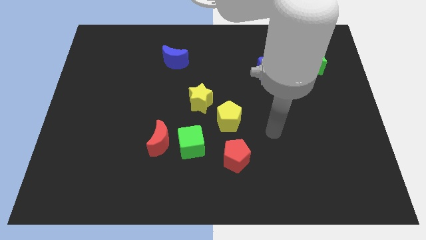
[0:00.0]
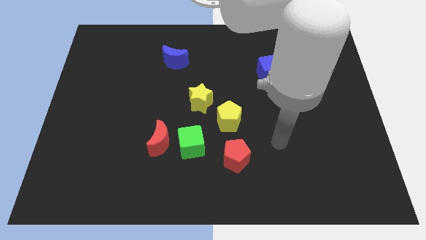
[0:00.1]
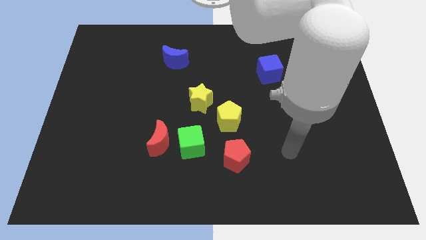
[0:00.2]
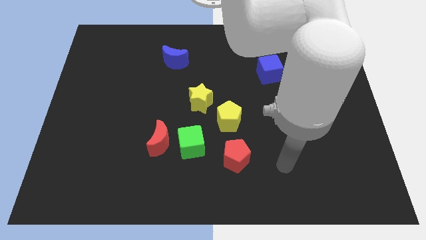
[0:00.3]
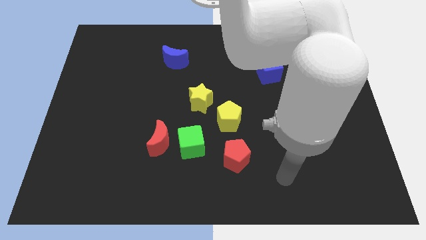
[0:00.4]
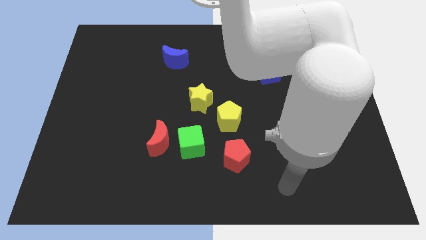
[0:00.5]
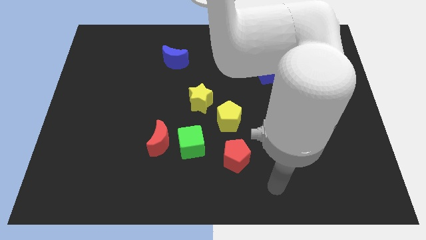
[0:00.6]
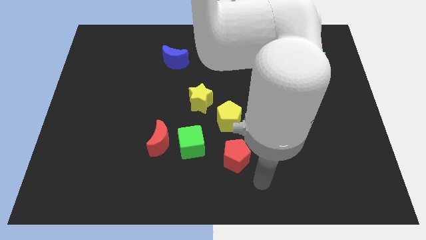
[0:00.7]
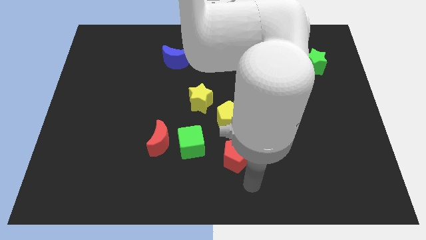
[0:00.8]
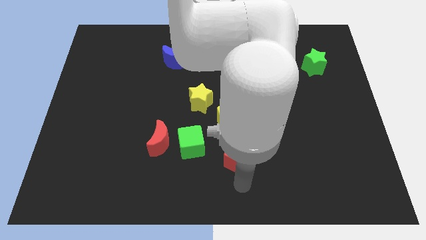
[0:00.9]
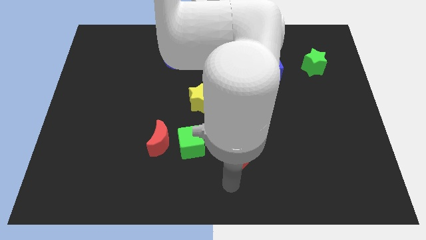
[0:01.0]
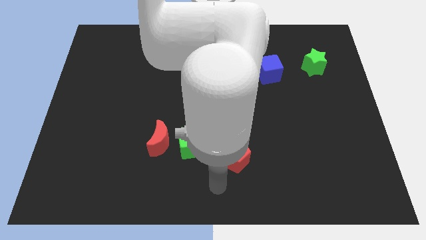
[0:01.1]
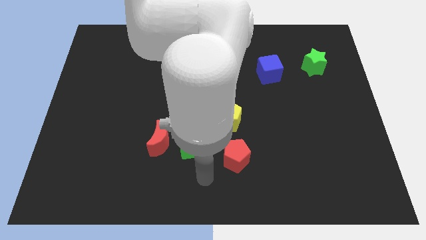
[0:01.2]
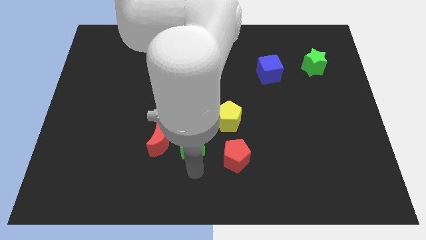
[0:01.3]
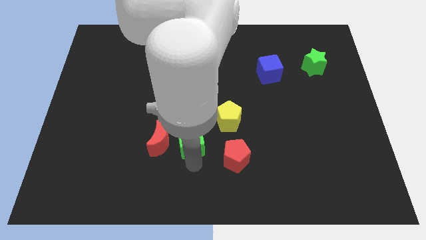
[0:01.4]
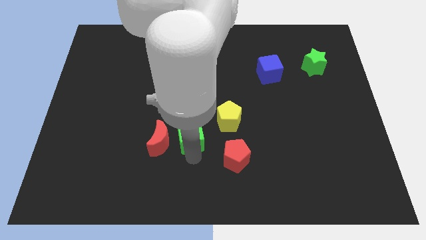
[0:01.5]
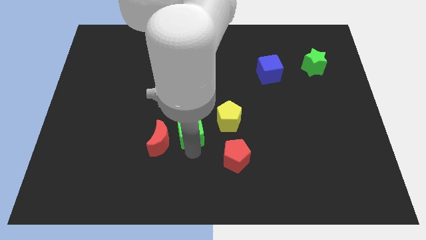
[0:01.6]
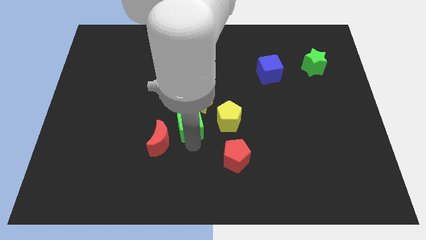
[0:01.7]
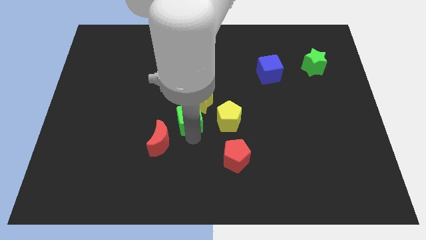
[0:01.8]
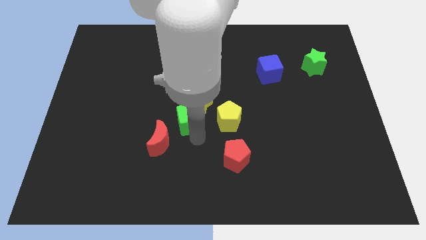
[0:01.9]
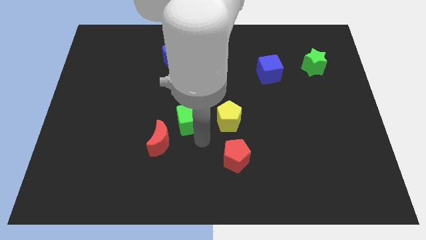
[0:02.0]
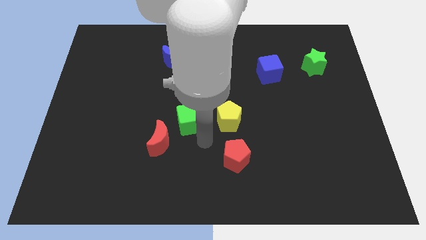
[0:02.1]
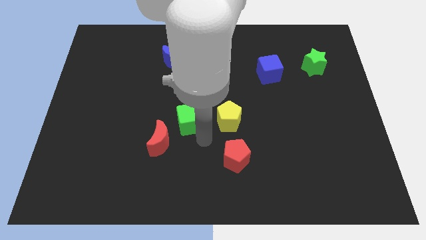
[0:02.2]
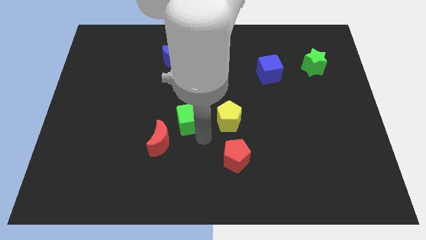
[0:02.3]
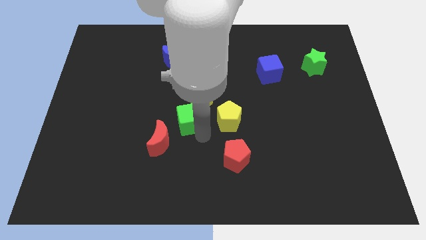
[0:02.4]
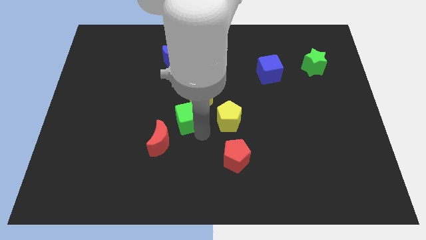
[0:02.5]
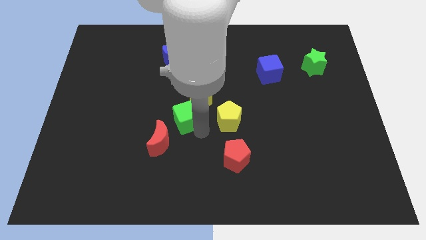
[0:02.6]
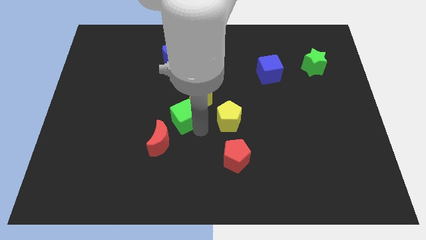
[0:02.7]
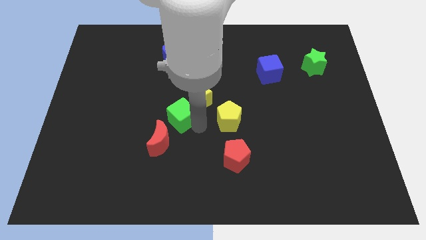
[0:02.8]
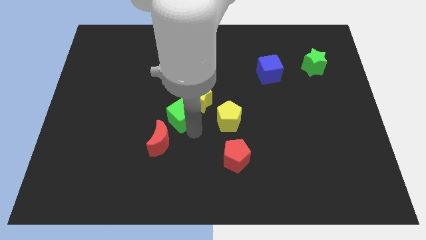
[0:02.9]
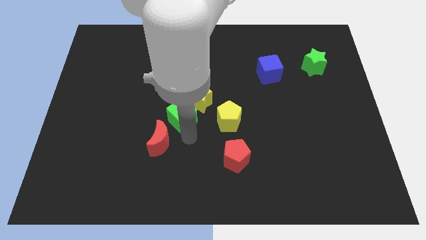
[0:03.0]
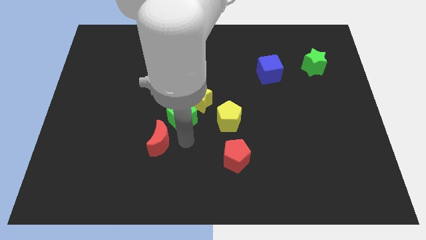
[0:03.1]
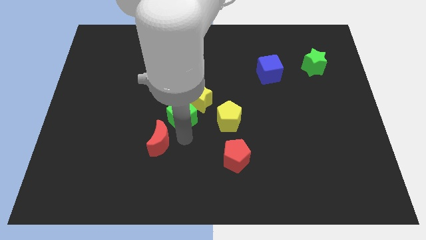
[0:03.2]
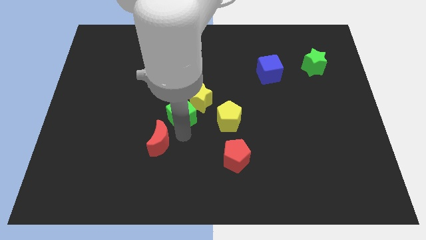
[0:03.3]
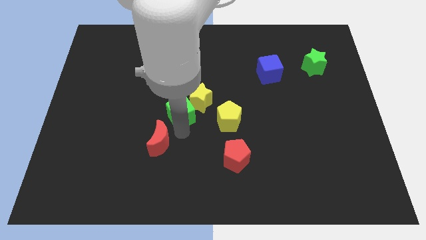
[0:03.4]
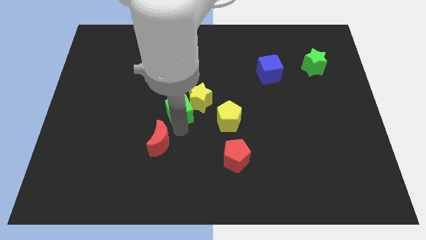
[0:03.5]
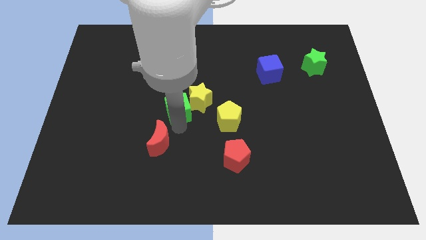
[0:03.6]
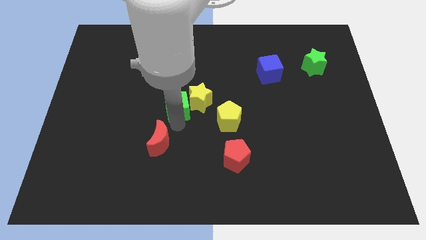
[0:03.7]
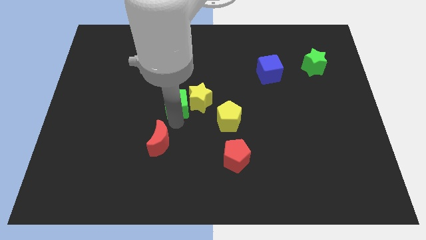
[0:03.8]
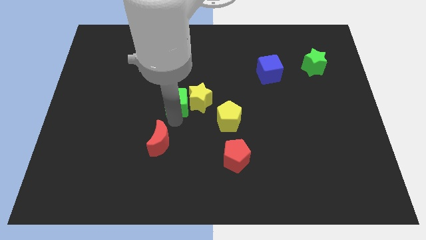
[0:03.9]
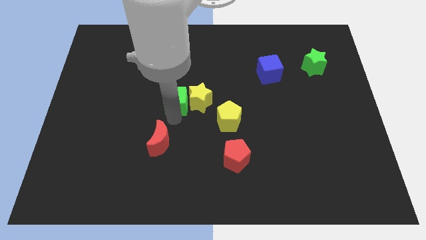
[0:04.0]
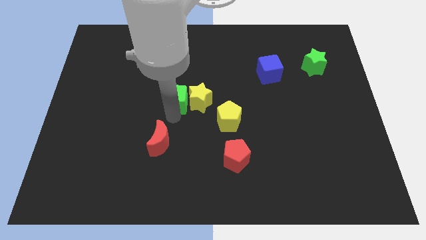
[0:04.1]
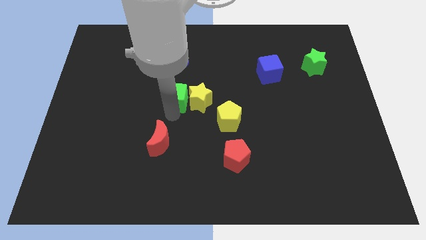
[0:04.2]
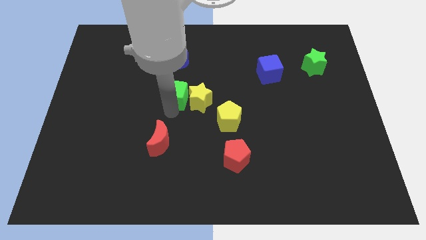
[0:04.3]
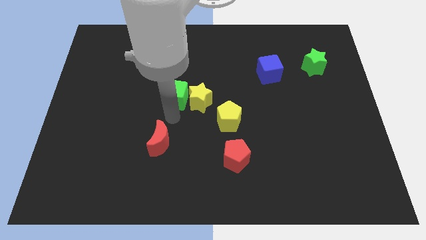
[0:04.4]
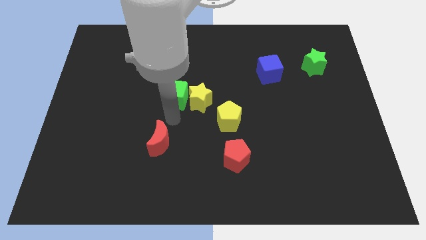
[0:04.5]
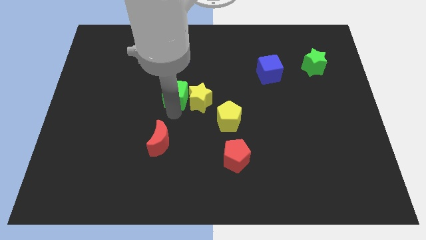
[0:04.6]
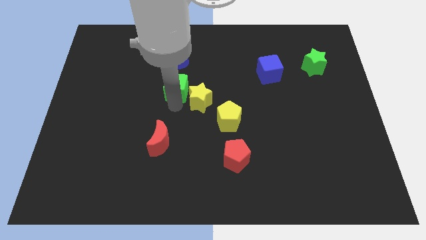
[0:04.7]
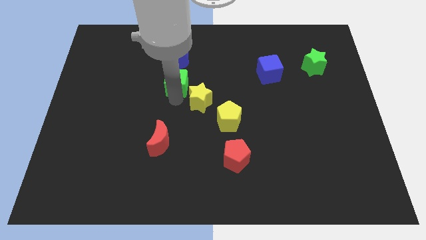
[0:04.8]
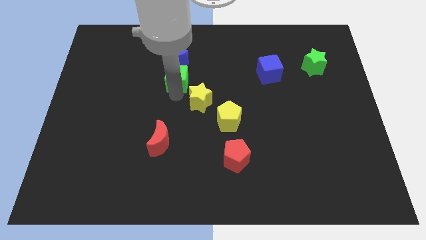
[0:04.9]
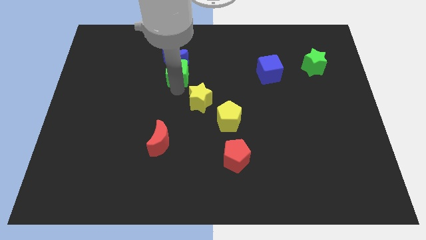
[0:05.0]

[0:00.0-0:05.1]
put the green cube close to the blue moon

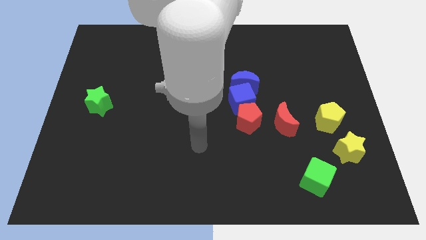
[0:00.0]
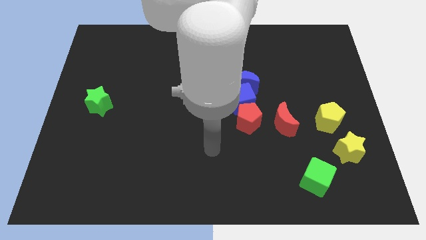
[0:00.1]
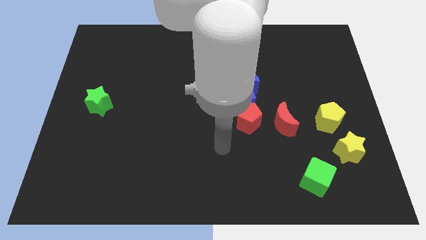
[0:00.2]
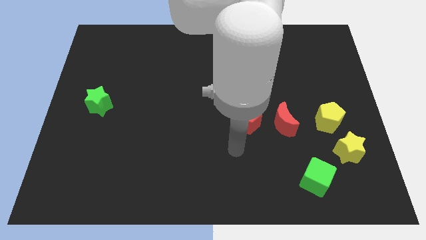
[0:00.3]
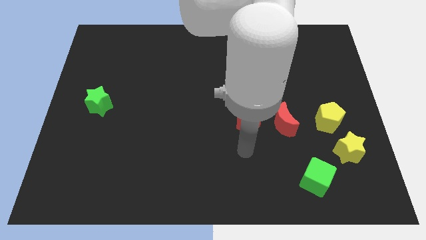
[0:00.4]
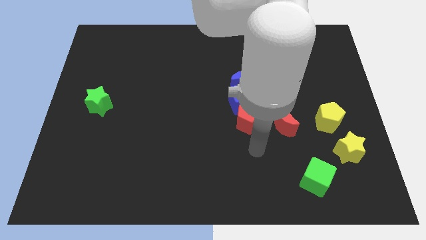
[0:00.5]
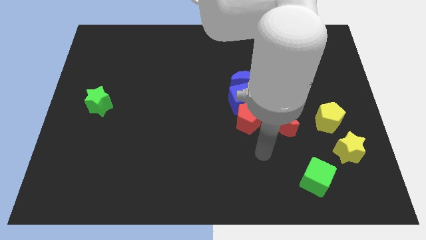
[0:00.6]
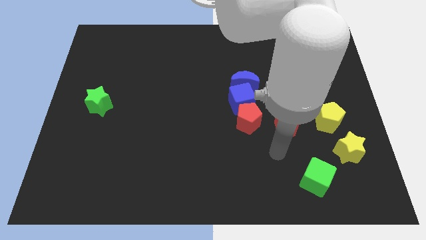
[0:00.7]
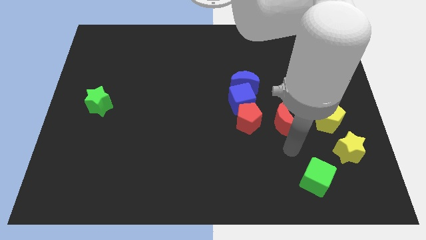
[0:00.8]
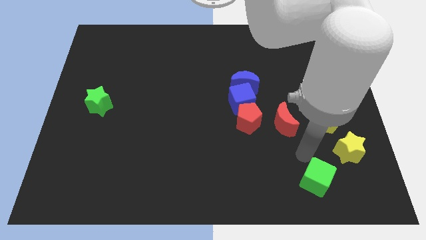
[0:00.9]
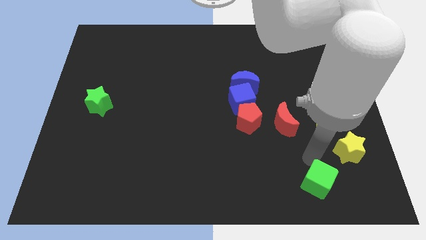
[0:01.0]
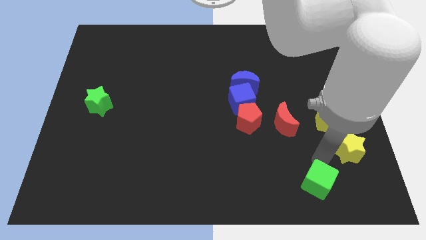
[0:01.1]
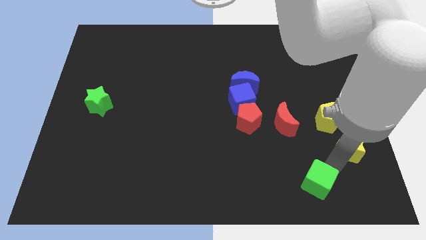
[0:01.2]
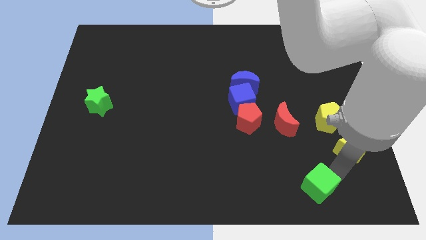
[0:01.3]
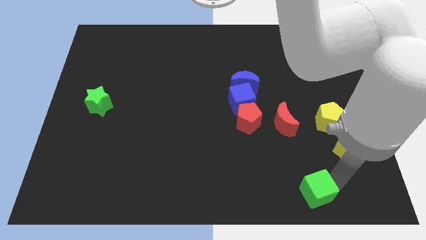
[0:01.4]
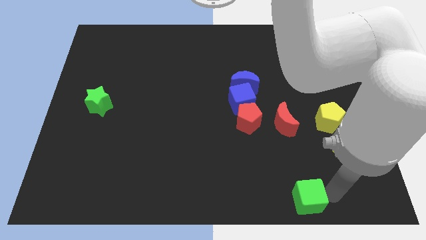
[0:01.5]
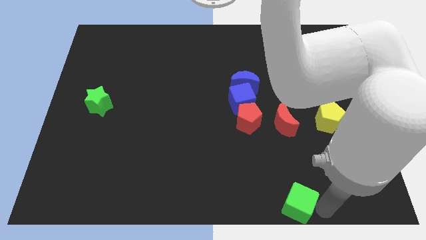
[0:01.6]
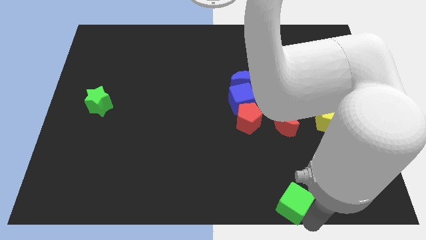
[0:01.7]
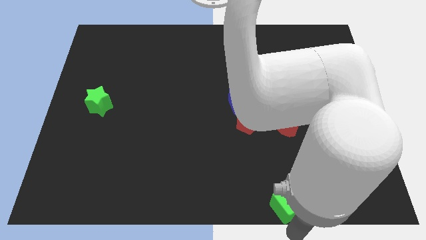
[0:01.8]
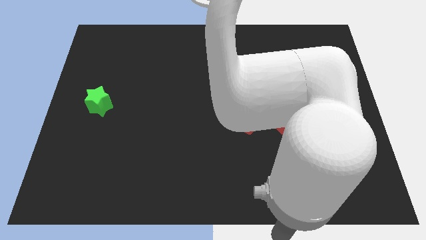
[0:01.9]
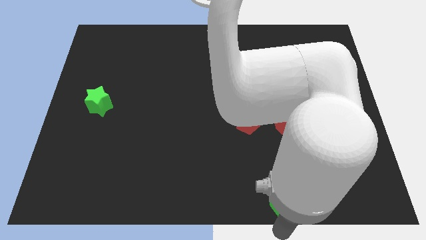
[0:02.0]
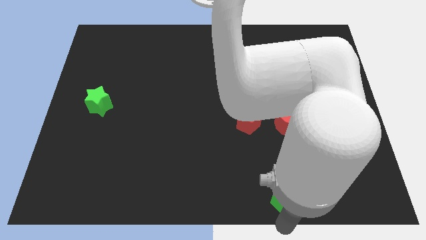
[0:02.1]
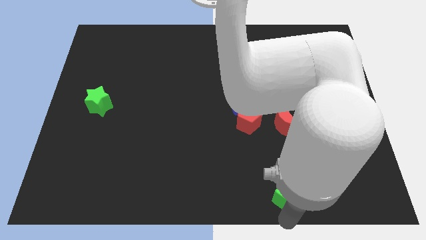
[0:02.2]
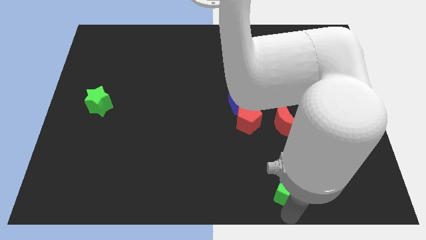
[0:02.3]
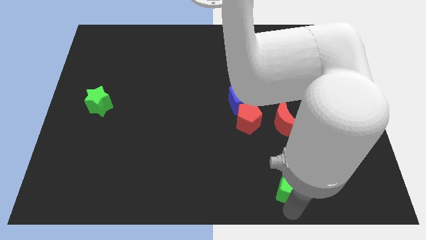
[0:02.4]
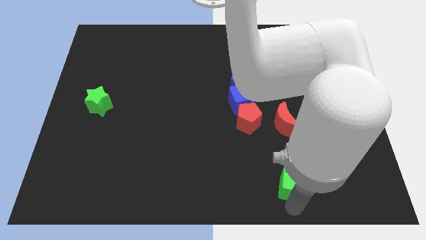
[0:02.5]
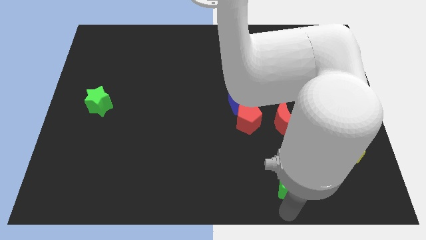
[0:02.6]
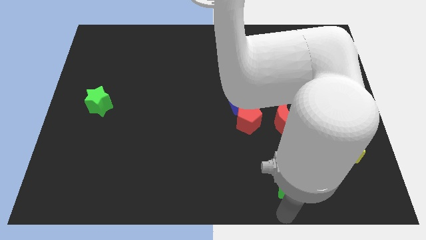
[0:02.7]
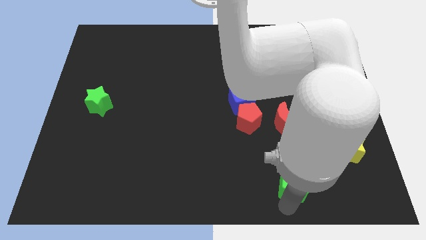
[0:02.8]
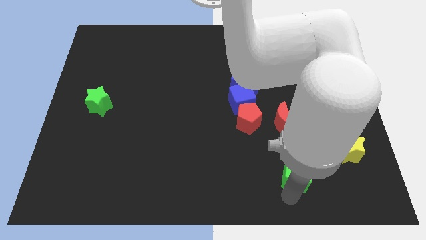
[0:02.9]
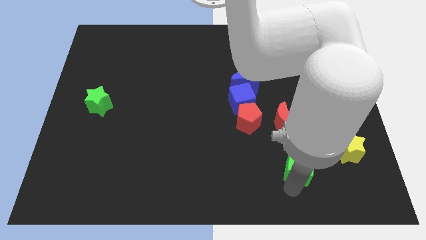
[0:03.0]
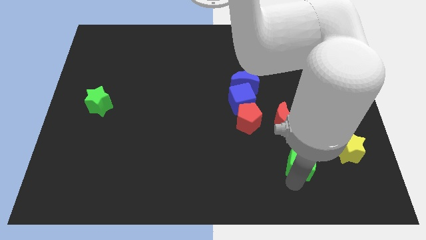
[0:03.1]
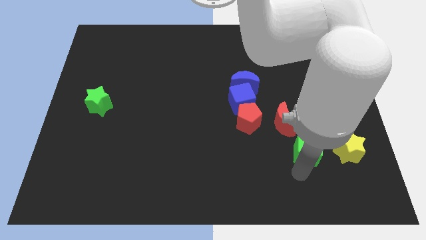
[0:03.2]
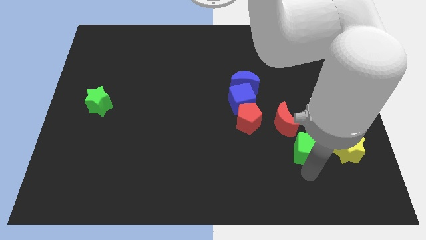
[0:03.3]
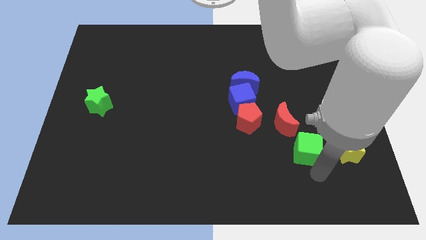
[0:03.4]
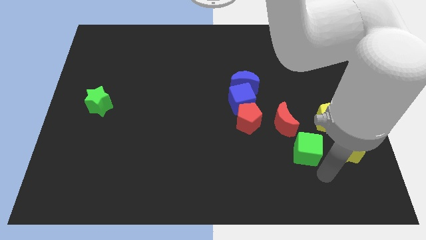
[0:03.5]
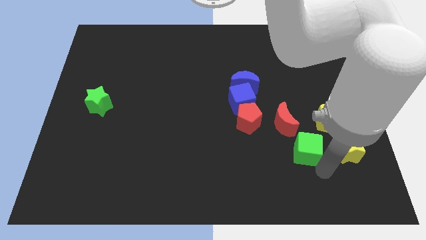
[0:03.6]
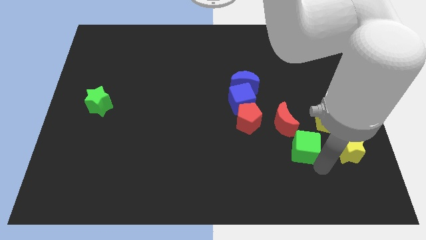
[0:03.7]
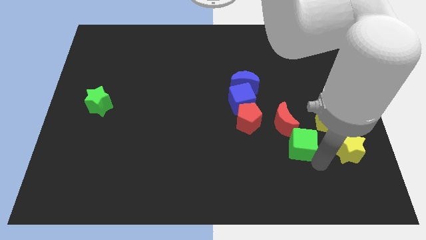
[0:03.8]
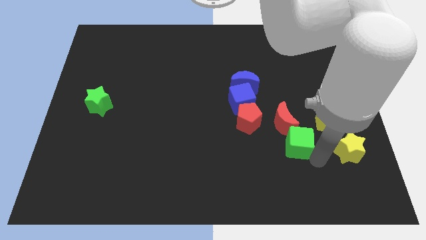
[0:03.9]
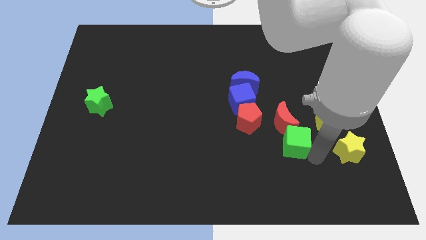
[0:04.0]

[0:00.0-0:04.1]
slide the green cube next to the red moon
